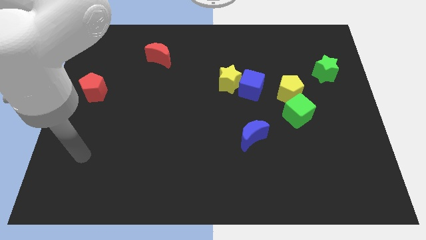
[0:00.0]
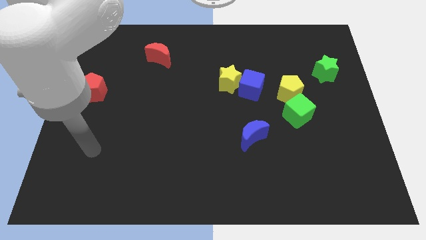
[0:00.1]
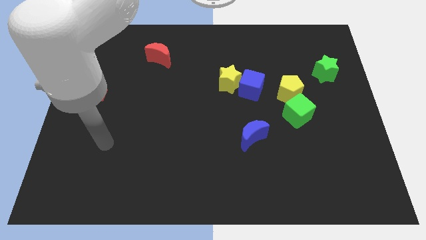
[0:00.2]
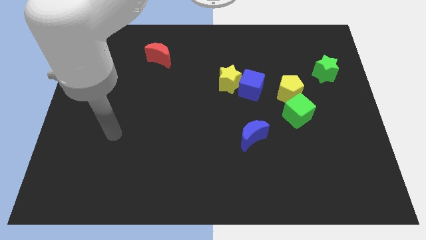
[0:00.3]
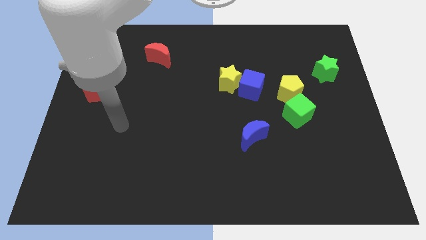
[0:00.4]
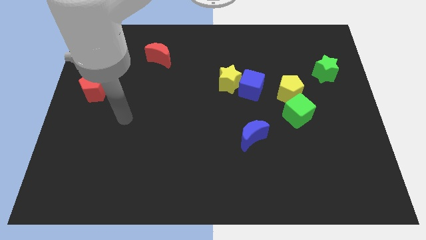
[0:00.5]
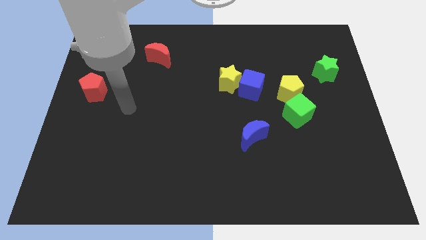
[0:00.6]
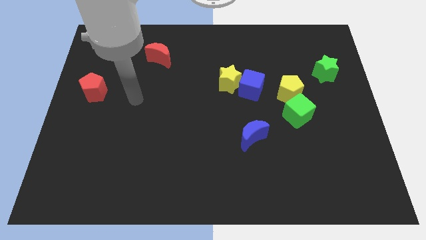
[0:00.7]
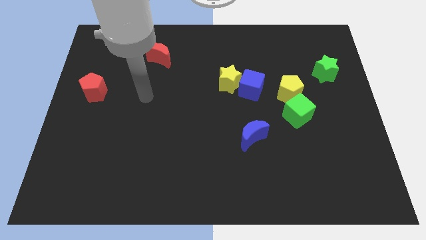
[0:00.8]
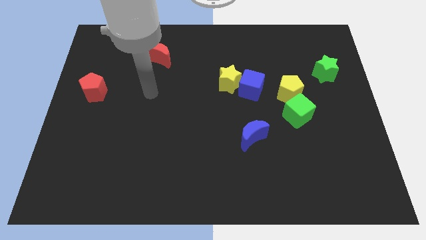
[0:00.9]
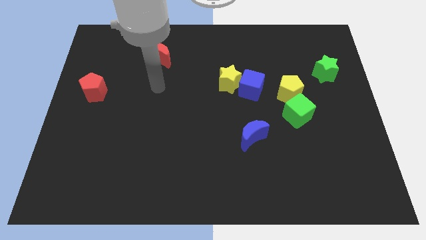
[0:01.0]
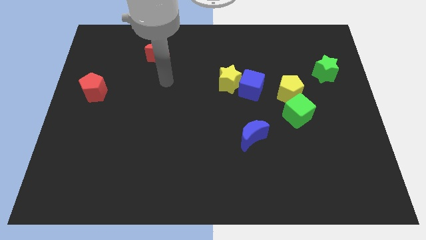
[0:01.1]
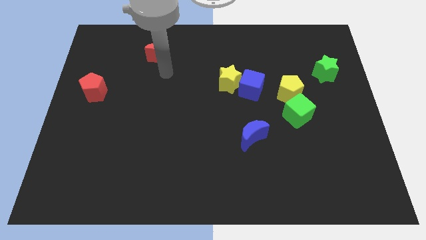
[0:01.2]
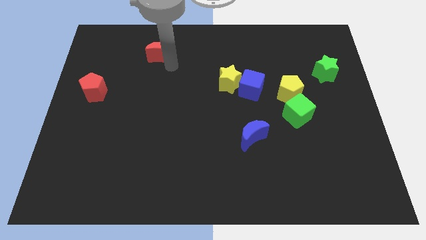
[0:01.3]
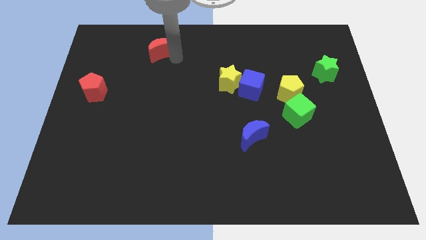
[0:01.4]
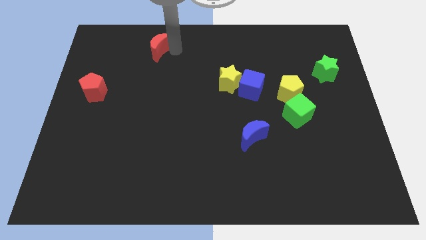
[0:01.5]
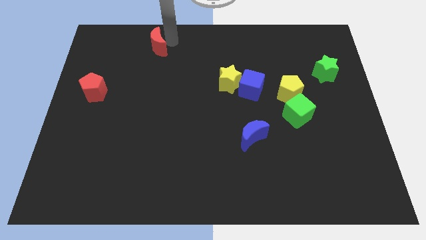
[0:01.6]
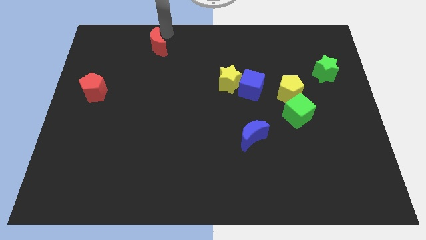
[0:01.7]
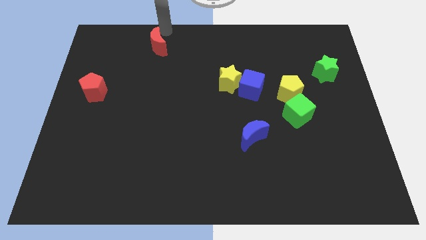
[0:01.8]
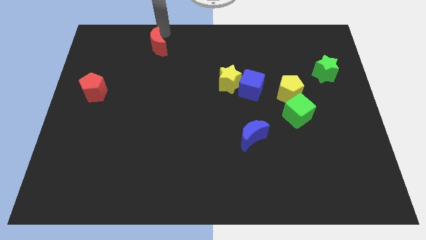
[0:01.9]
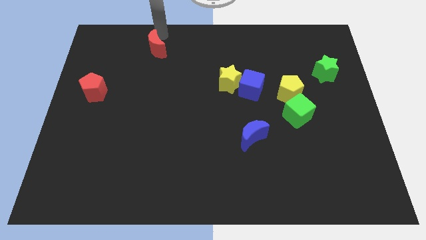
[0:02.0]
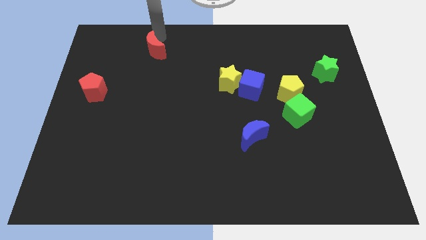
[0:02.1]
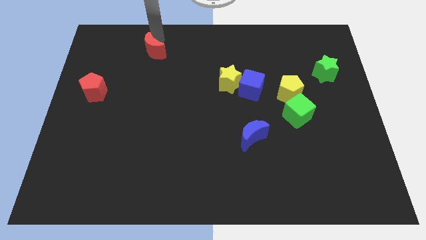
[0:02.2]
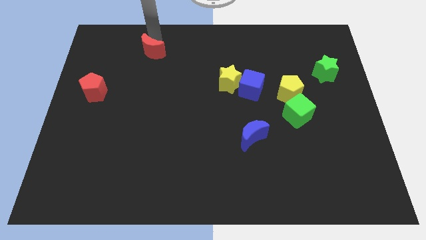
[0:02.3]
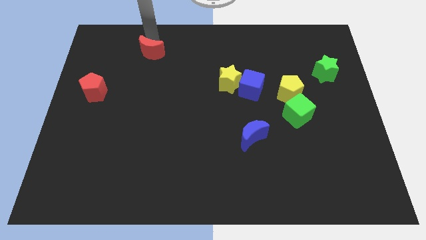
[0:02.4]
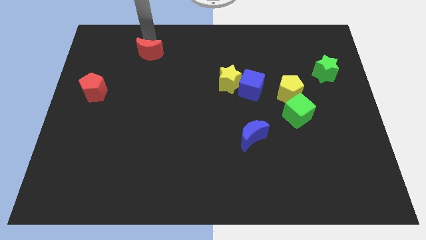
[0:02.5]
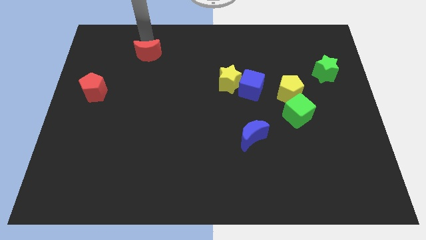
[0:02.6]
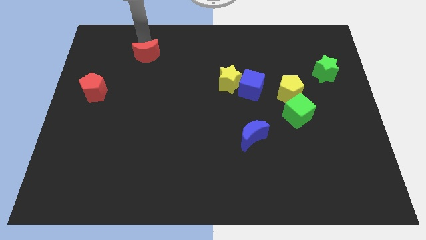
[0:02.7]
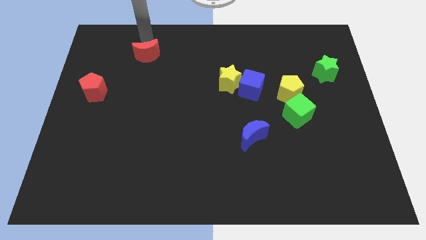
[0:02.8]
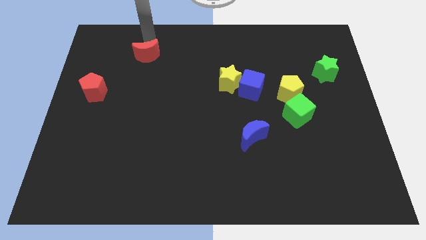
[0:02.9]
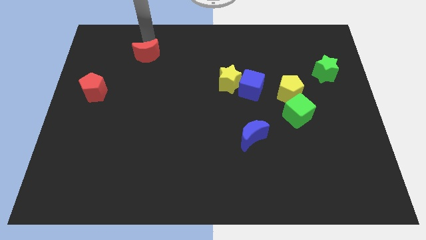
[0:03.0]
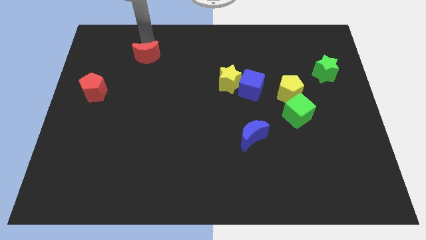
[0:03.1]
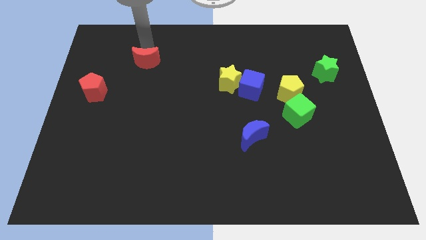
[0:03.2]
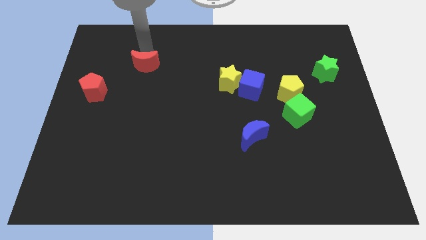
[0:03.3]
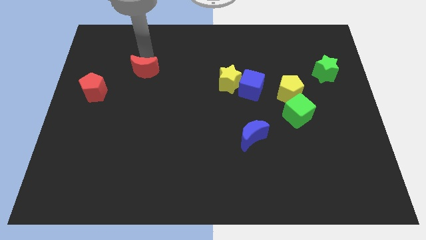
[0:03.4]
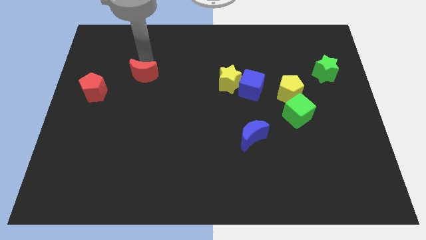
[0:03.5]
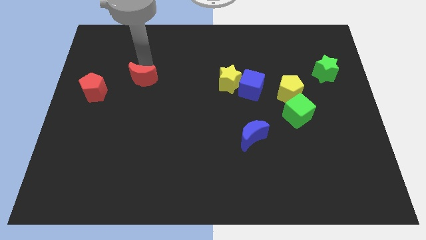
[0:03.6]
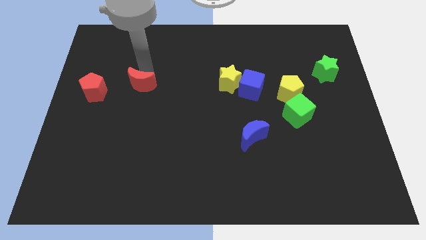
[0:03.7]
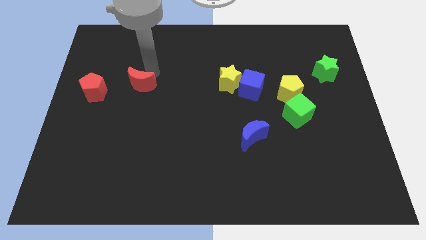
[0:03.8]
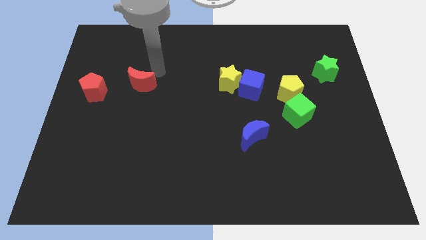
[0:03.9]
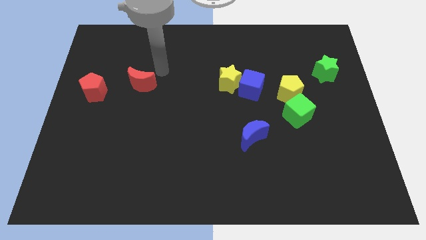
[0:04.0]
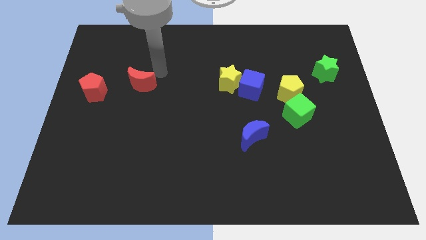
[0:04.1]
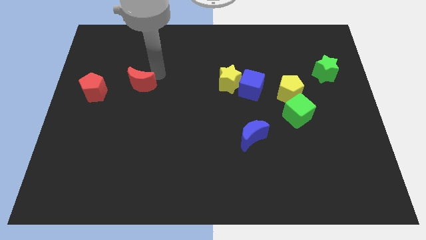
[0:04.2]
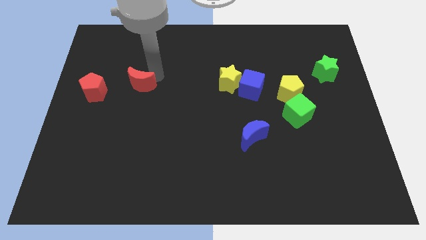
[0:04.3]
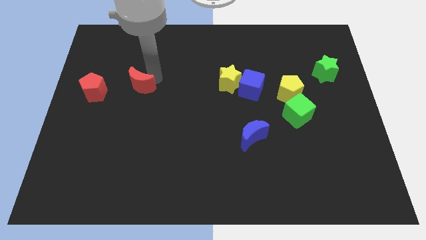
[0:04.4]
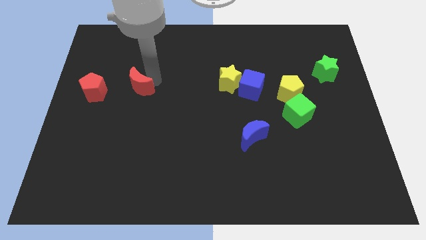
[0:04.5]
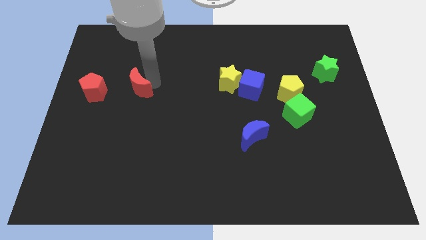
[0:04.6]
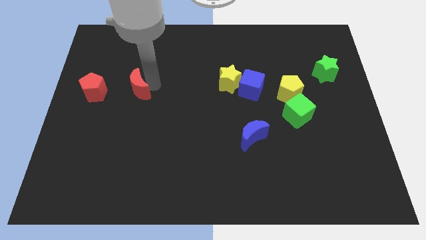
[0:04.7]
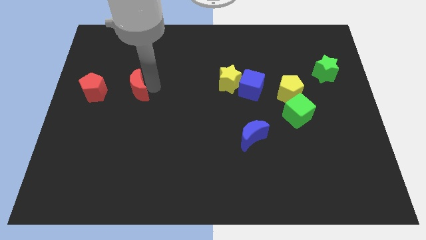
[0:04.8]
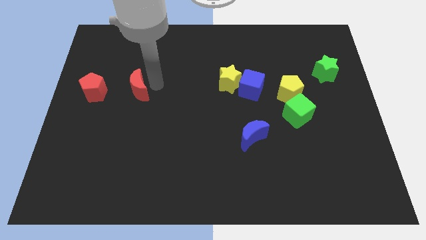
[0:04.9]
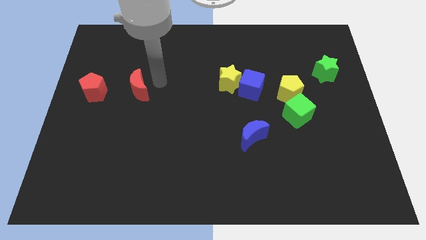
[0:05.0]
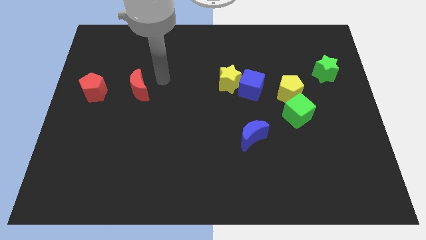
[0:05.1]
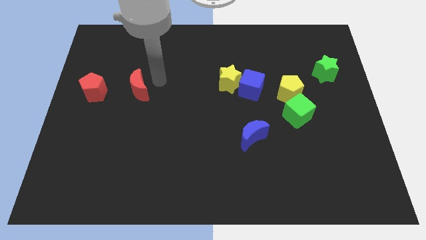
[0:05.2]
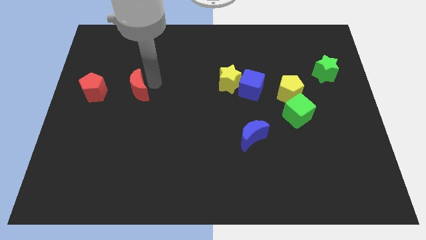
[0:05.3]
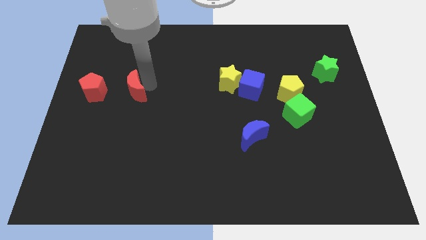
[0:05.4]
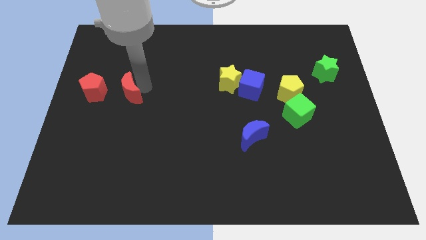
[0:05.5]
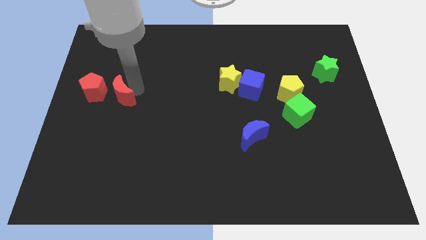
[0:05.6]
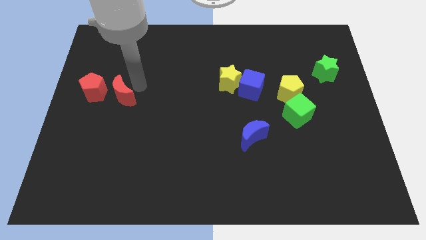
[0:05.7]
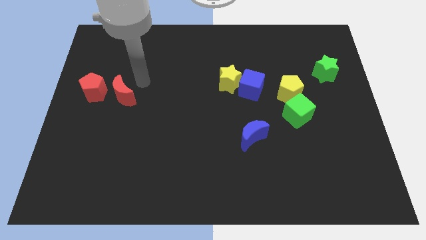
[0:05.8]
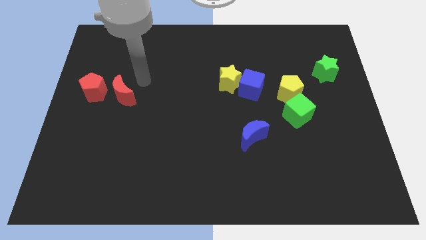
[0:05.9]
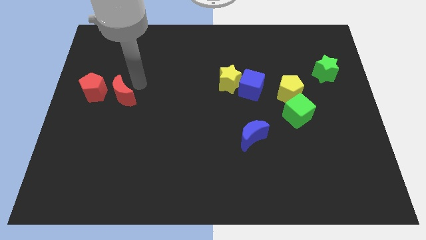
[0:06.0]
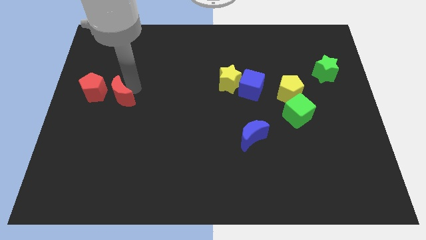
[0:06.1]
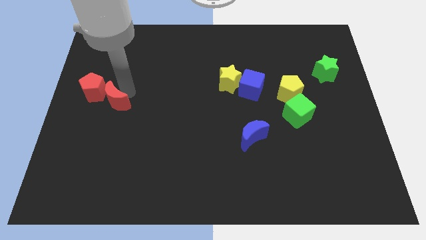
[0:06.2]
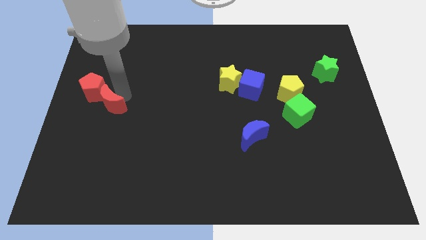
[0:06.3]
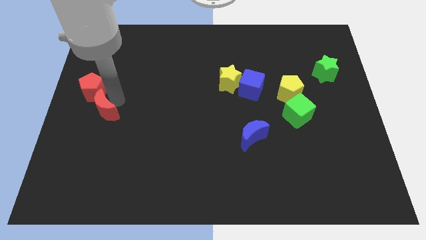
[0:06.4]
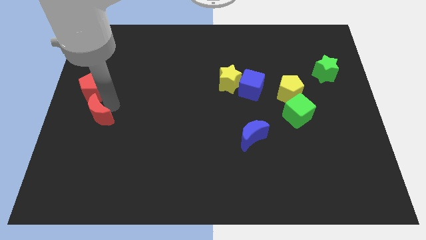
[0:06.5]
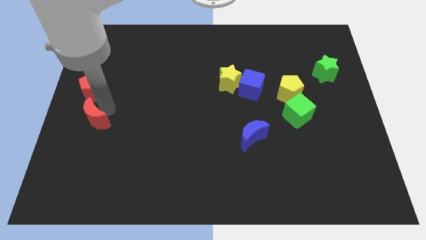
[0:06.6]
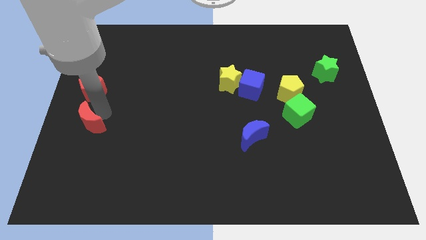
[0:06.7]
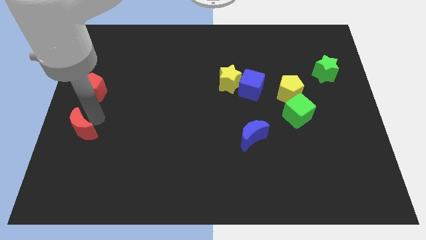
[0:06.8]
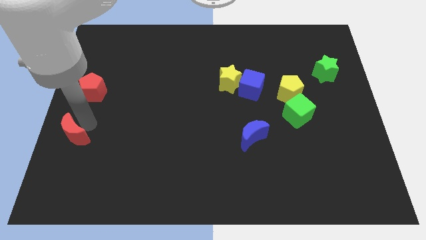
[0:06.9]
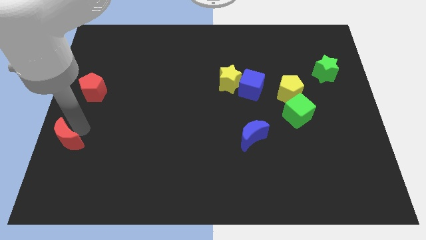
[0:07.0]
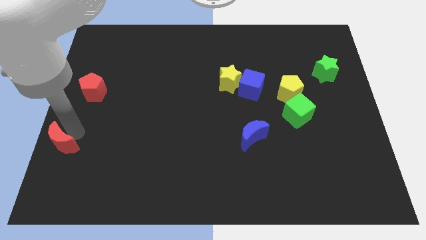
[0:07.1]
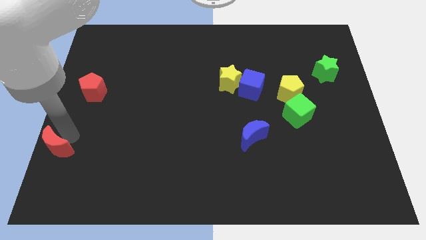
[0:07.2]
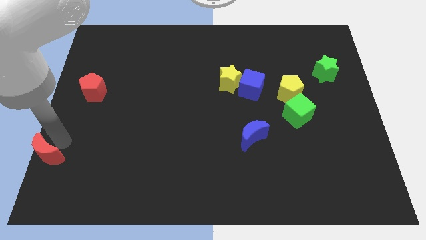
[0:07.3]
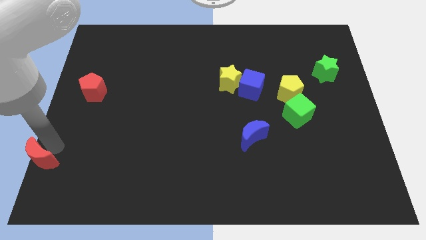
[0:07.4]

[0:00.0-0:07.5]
push the red moon to the lower left corner
